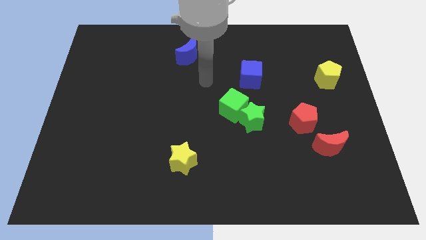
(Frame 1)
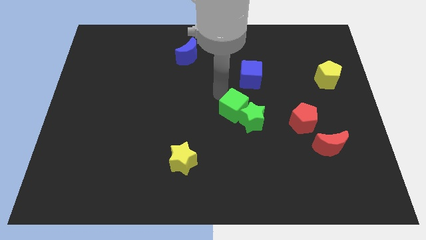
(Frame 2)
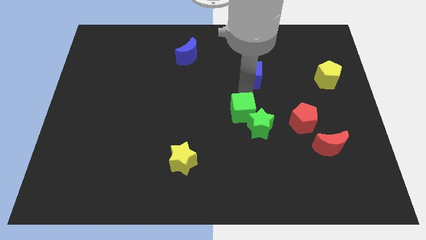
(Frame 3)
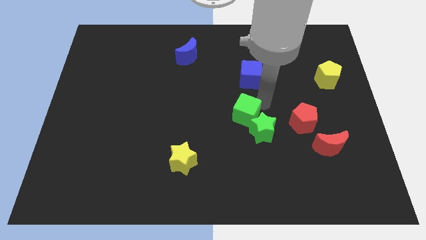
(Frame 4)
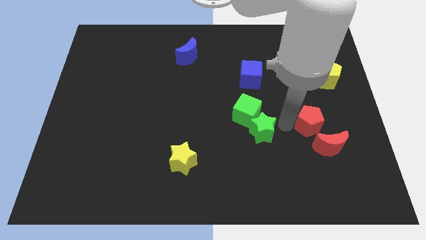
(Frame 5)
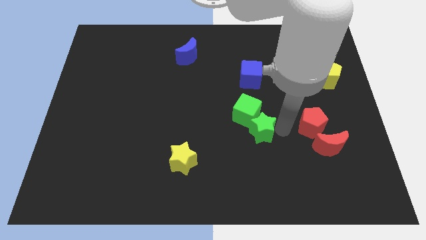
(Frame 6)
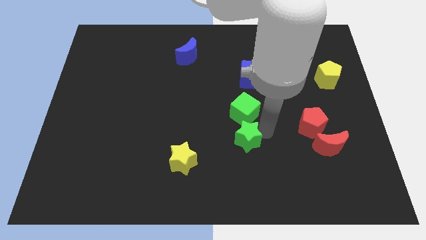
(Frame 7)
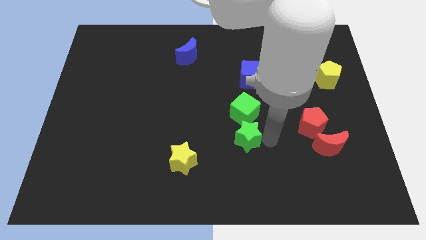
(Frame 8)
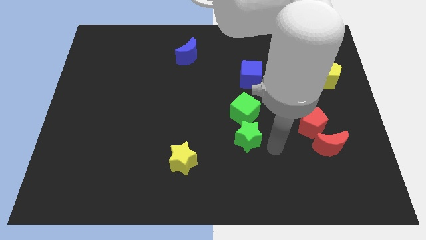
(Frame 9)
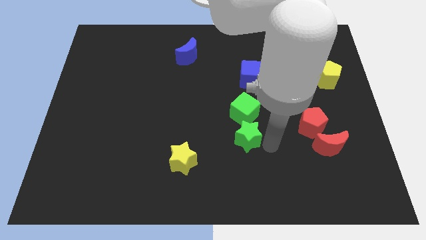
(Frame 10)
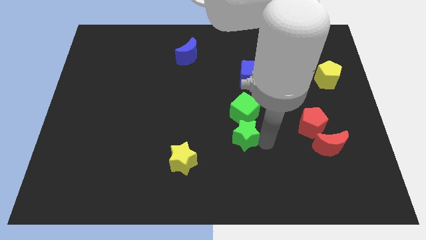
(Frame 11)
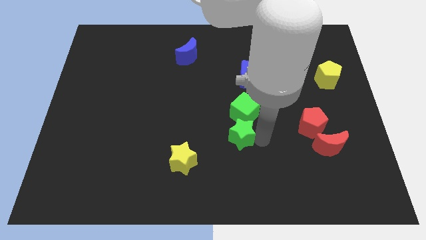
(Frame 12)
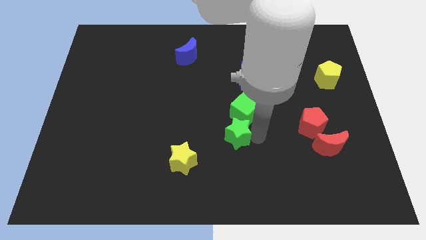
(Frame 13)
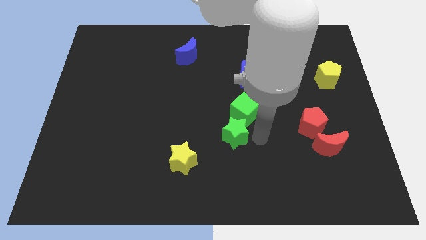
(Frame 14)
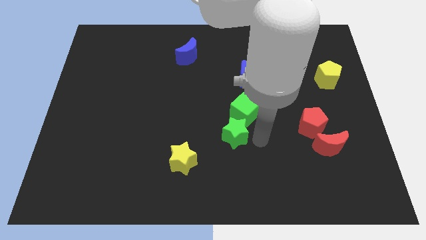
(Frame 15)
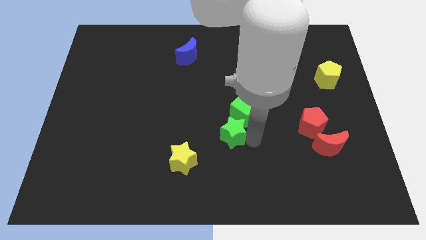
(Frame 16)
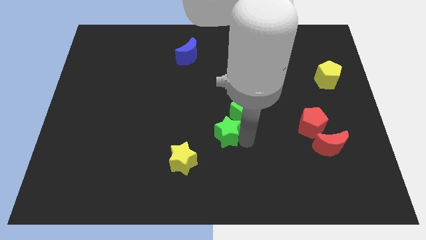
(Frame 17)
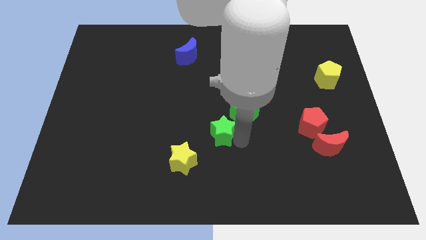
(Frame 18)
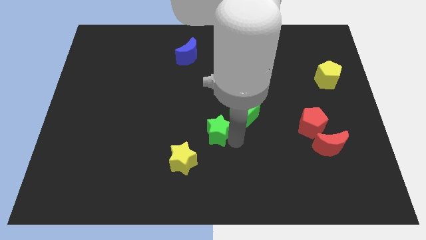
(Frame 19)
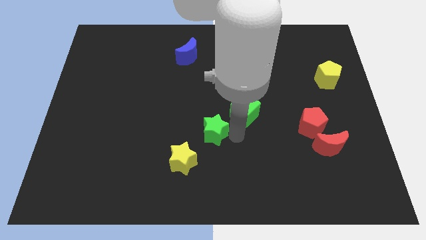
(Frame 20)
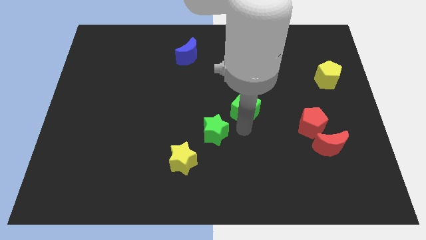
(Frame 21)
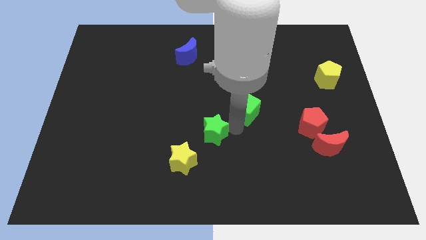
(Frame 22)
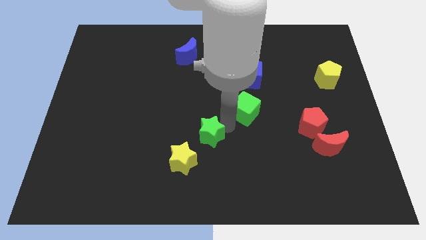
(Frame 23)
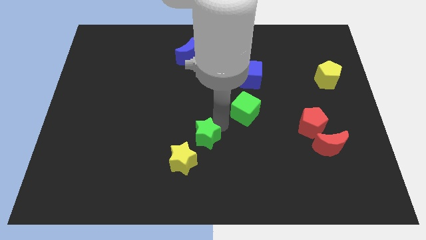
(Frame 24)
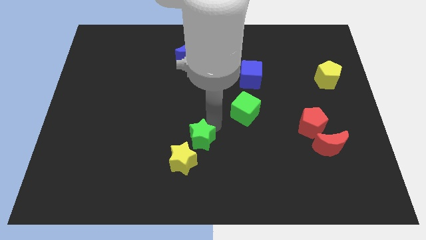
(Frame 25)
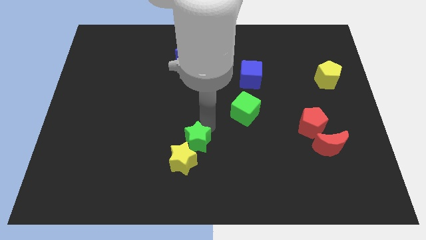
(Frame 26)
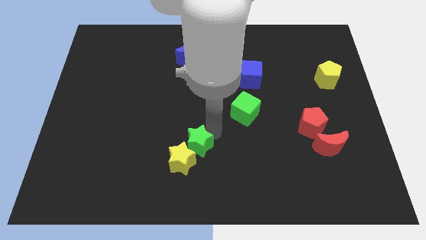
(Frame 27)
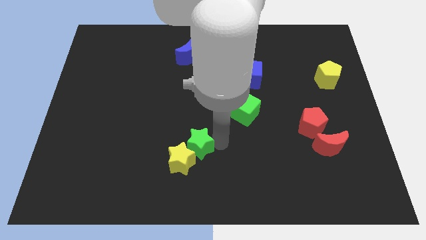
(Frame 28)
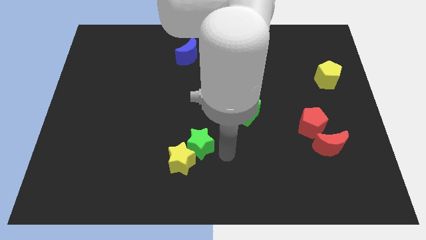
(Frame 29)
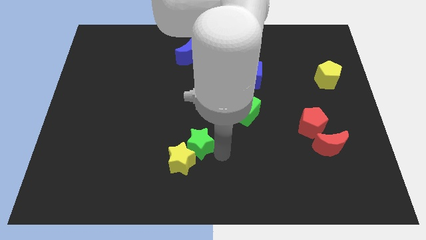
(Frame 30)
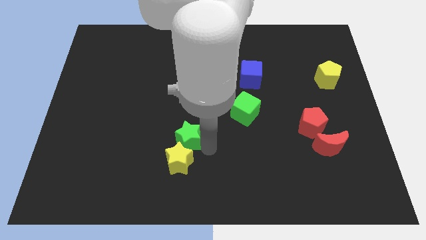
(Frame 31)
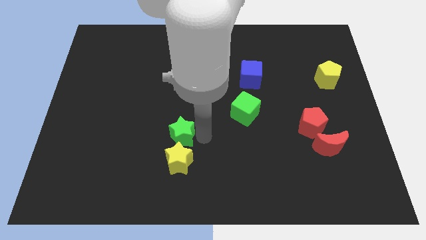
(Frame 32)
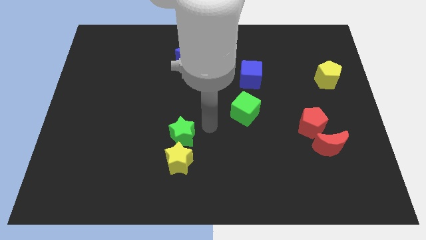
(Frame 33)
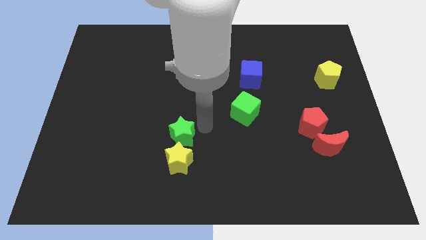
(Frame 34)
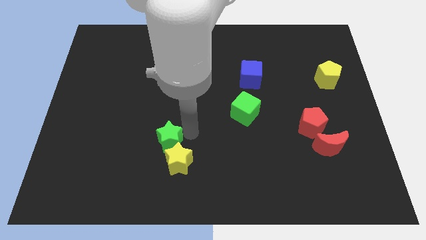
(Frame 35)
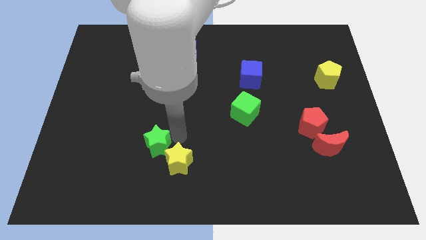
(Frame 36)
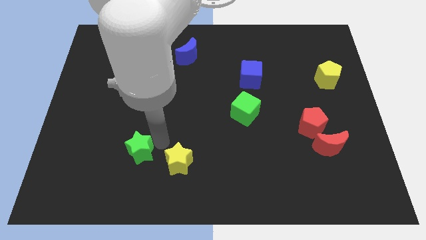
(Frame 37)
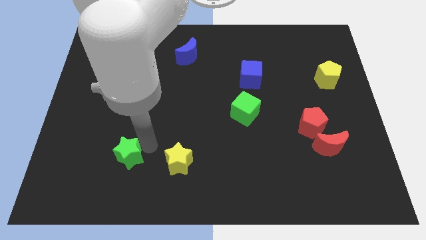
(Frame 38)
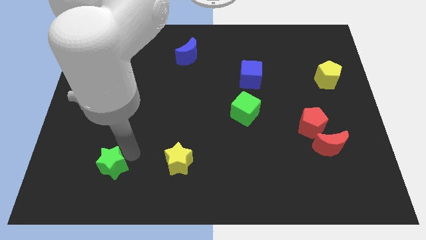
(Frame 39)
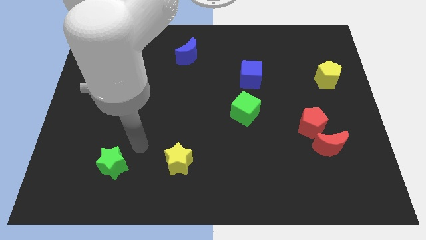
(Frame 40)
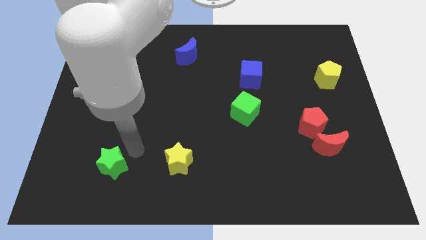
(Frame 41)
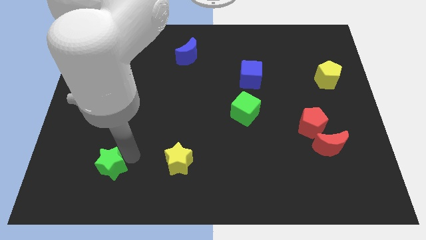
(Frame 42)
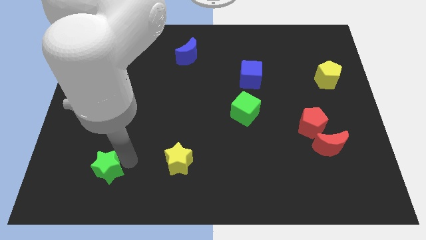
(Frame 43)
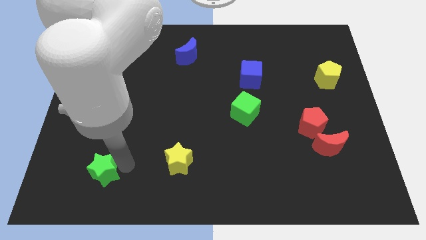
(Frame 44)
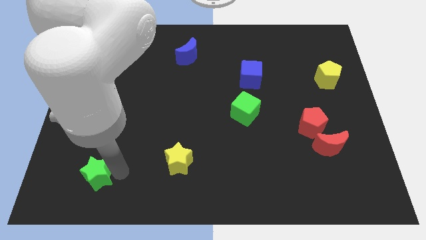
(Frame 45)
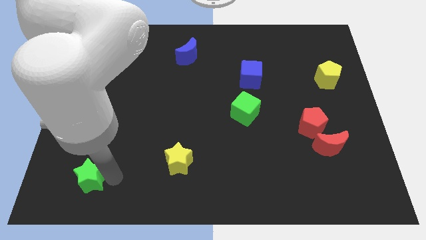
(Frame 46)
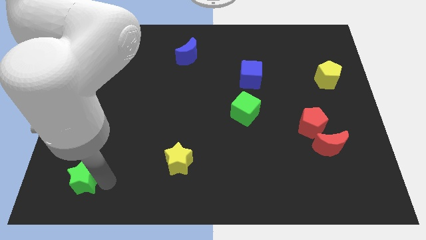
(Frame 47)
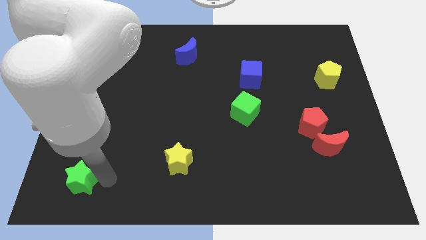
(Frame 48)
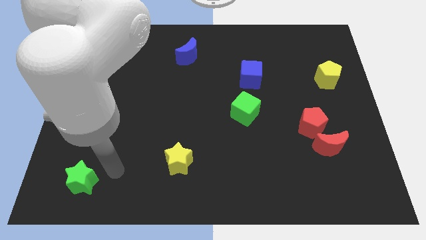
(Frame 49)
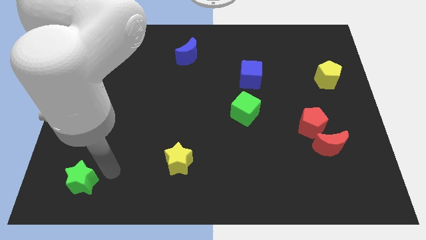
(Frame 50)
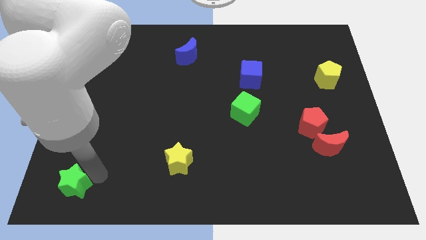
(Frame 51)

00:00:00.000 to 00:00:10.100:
push the green star to the bottom left corner

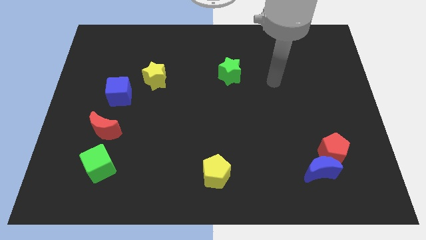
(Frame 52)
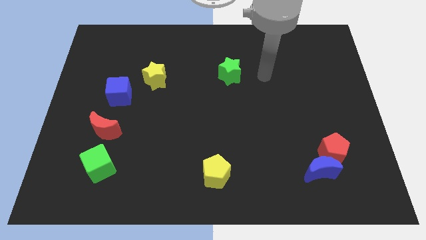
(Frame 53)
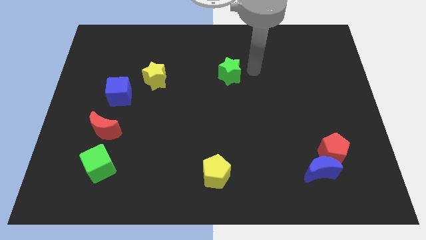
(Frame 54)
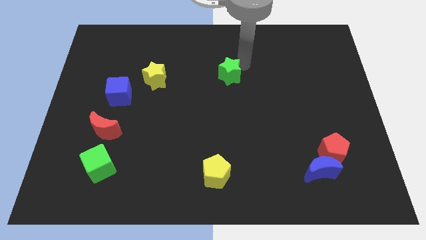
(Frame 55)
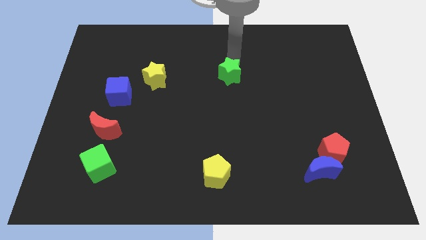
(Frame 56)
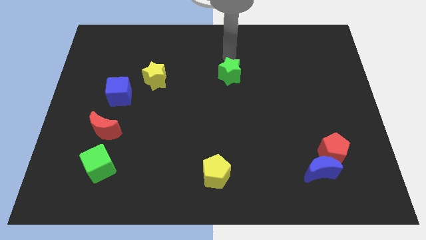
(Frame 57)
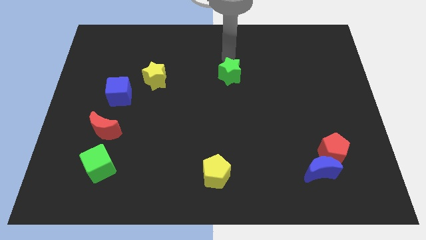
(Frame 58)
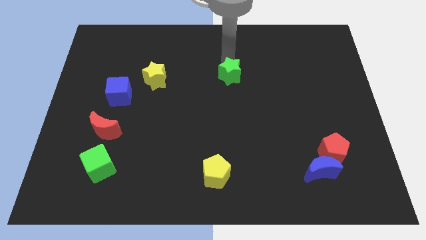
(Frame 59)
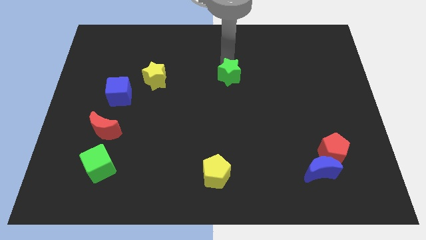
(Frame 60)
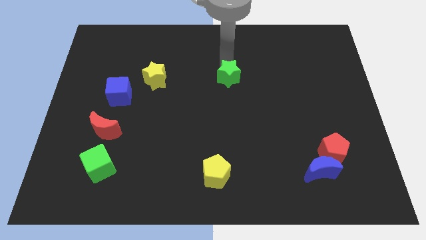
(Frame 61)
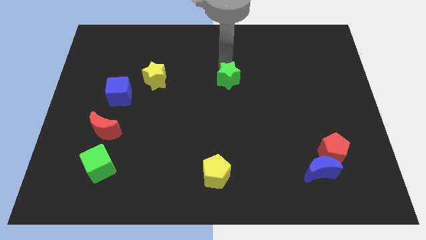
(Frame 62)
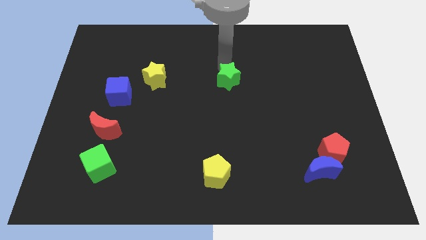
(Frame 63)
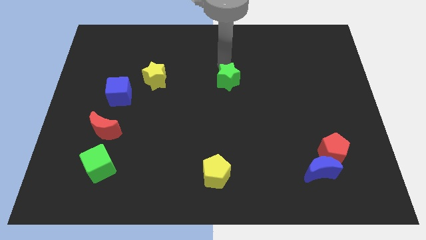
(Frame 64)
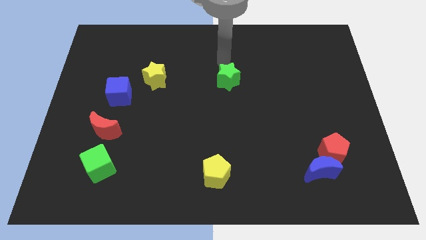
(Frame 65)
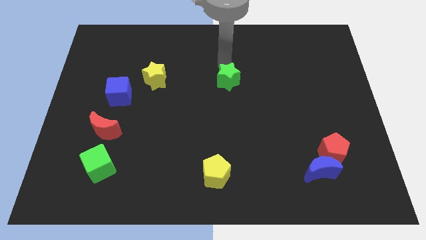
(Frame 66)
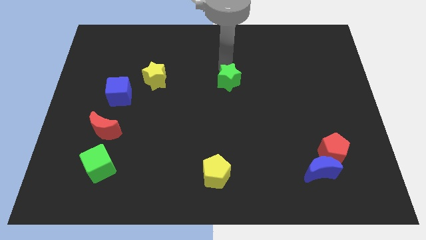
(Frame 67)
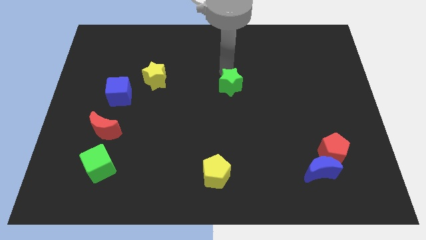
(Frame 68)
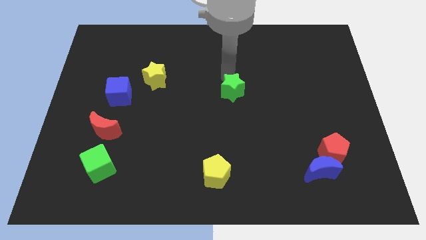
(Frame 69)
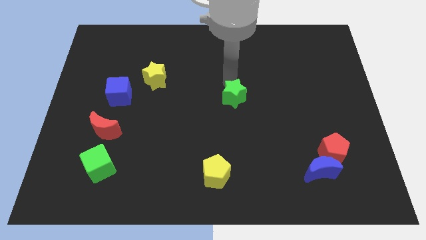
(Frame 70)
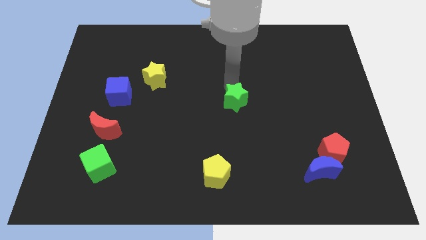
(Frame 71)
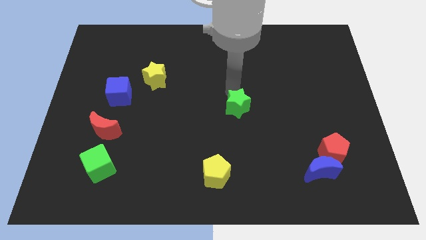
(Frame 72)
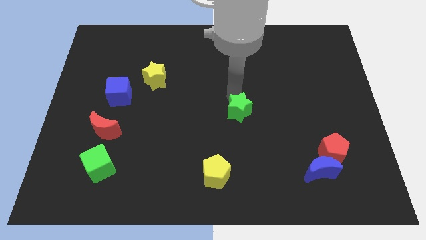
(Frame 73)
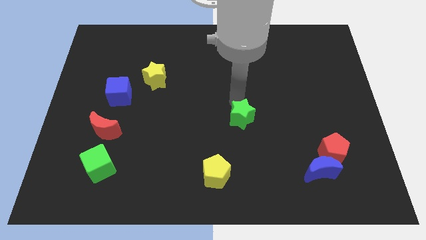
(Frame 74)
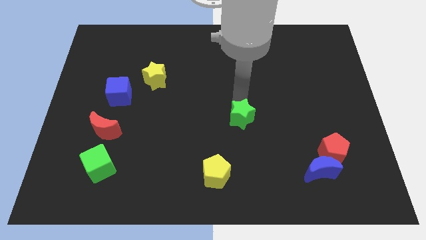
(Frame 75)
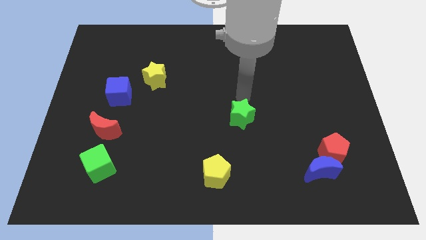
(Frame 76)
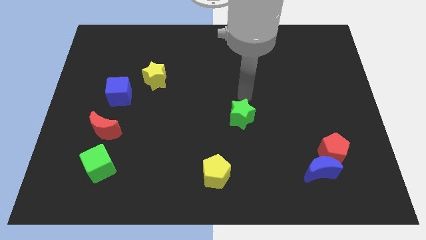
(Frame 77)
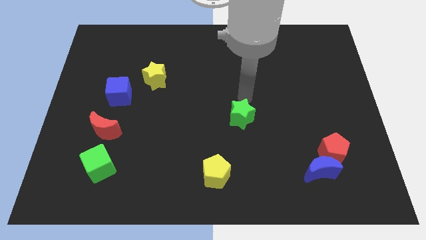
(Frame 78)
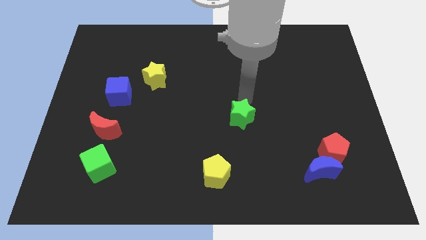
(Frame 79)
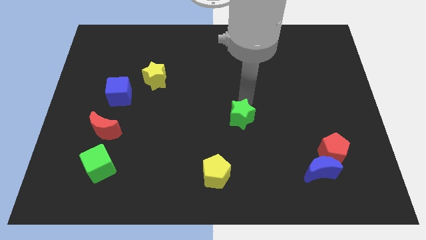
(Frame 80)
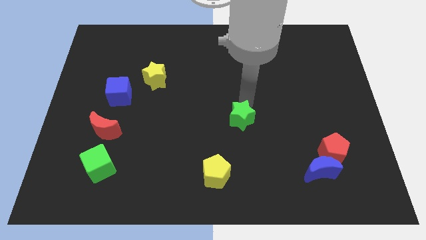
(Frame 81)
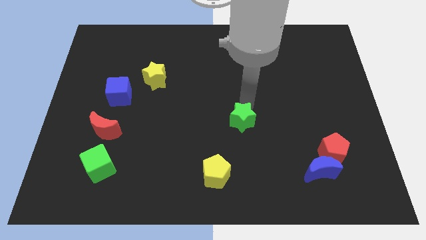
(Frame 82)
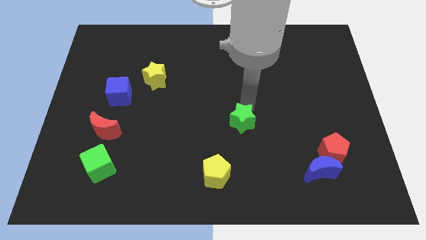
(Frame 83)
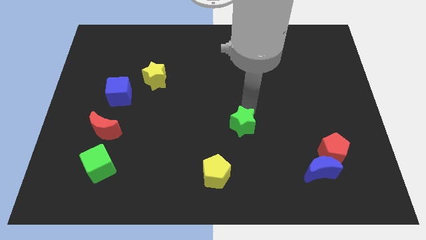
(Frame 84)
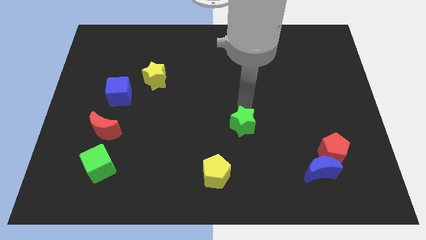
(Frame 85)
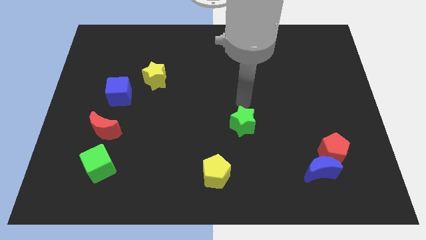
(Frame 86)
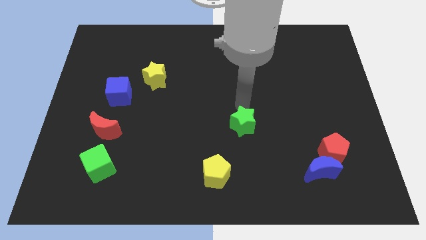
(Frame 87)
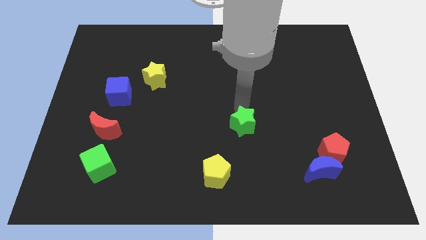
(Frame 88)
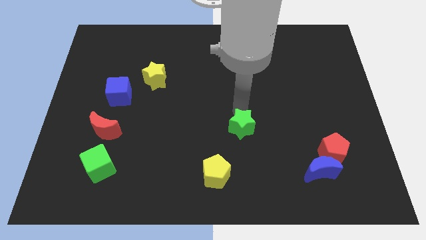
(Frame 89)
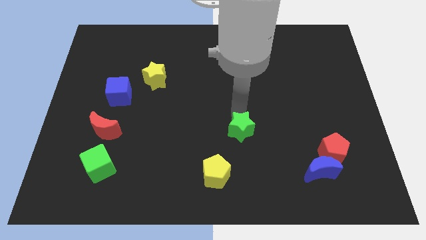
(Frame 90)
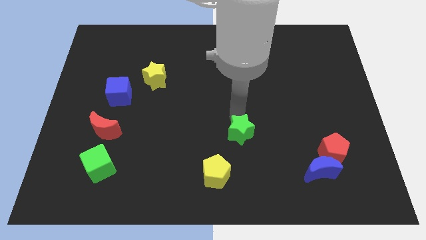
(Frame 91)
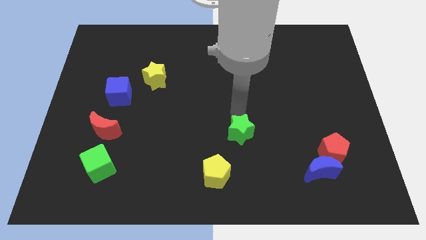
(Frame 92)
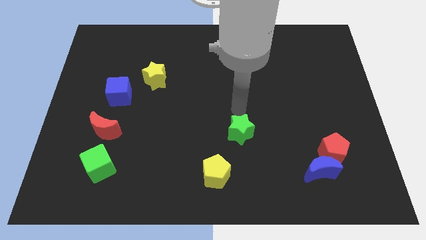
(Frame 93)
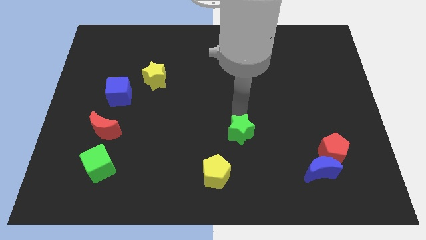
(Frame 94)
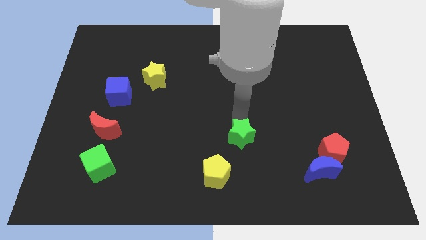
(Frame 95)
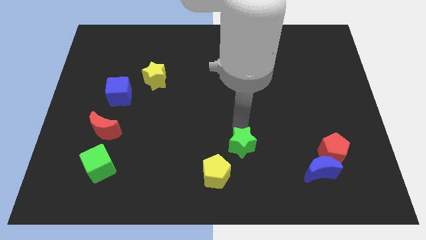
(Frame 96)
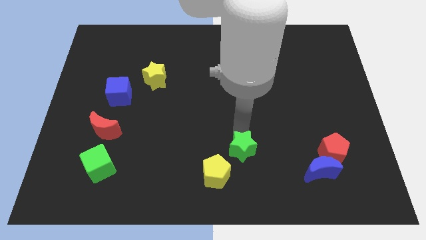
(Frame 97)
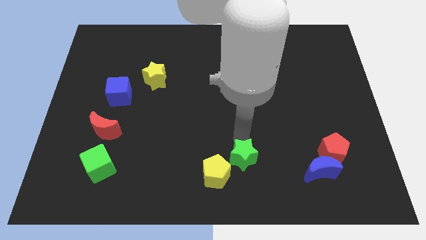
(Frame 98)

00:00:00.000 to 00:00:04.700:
slide the green star to the bottom side
